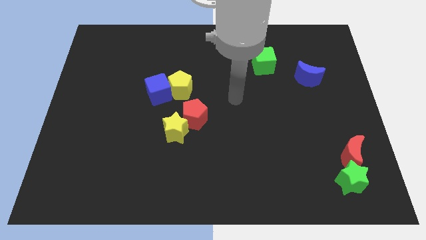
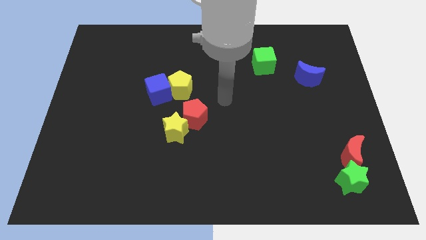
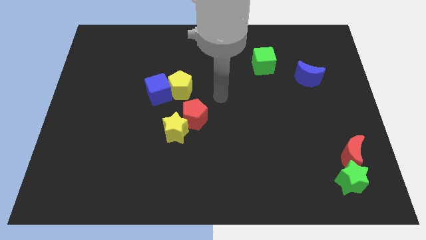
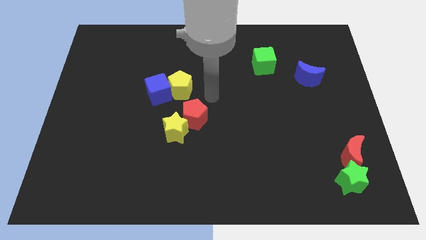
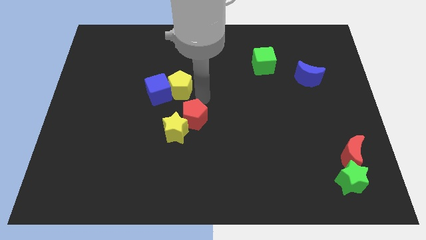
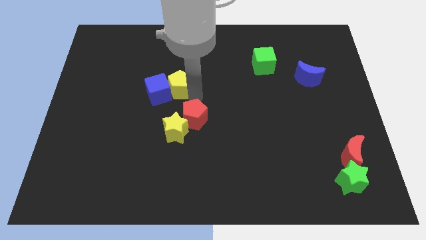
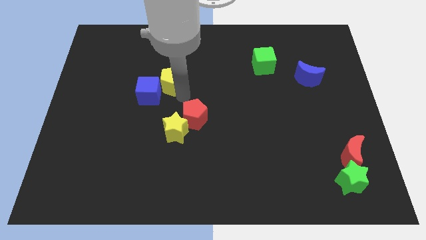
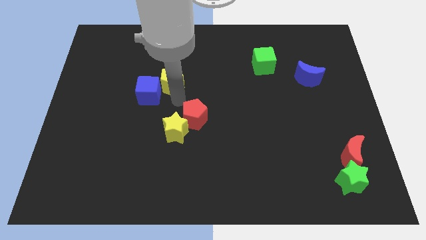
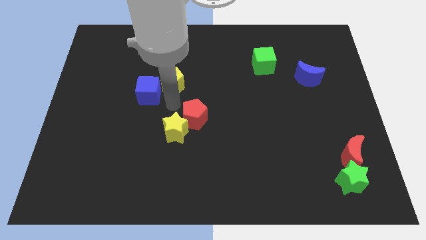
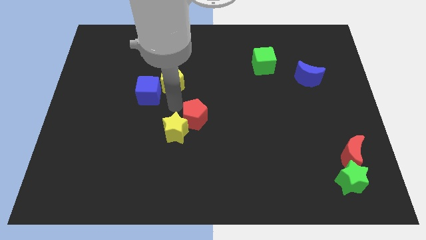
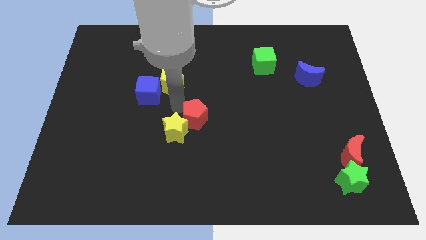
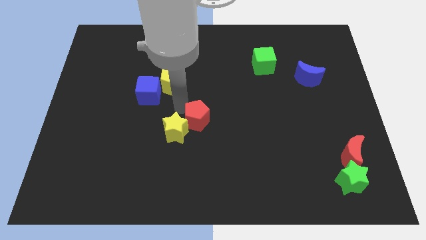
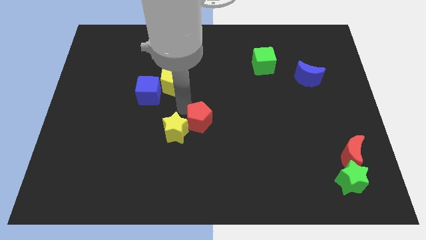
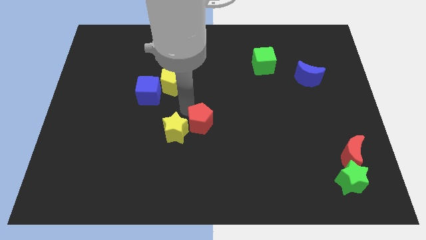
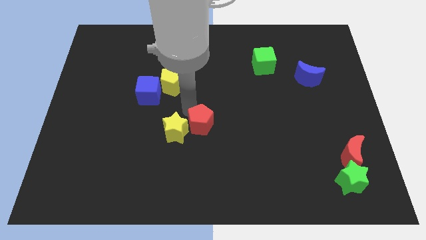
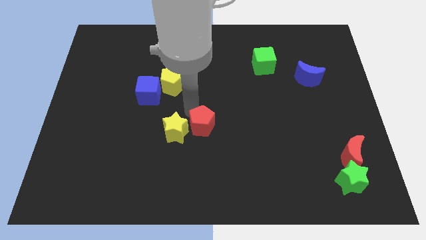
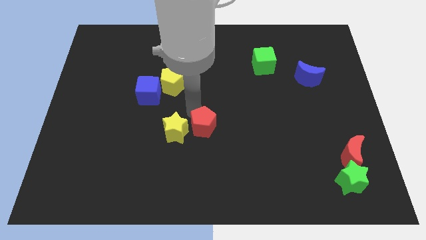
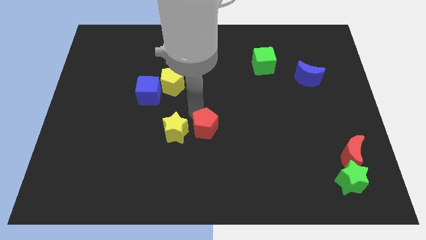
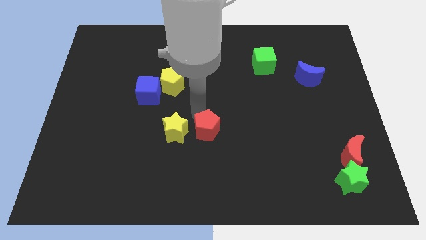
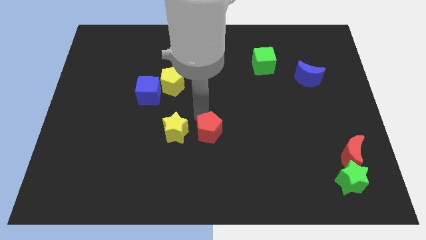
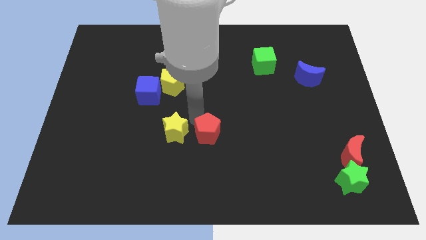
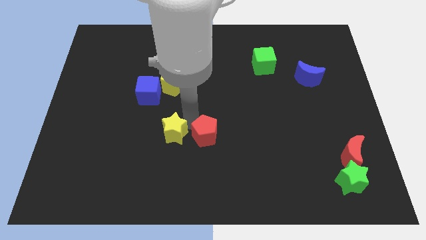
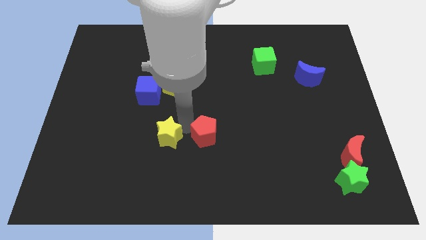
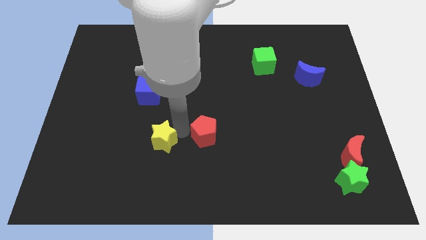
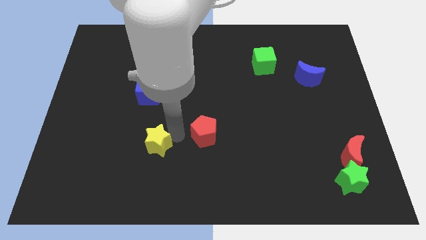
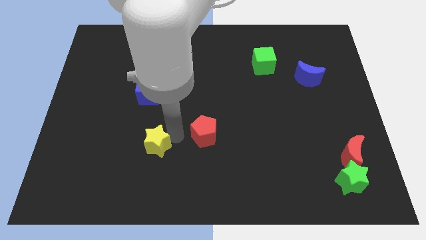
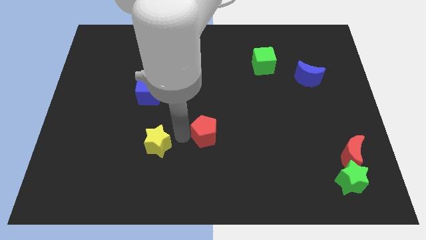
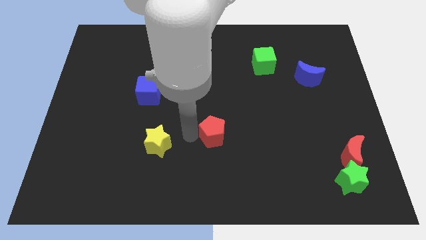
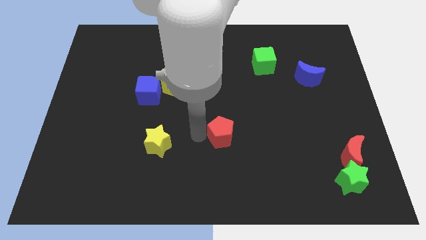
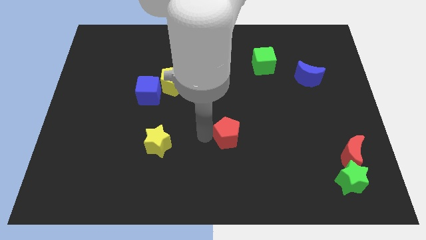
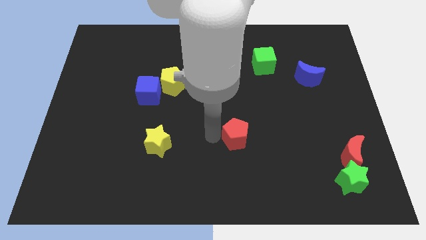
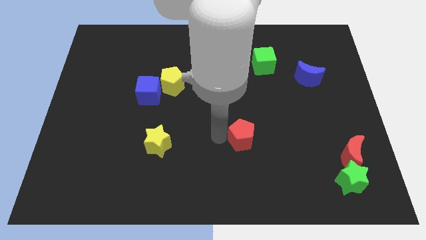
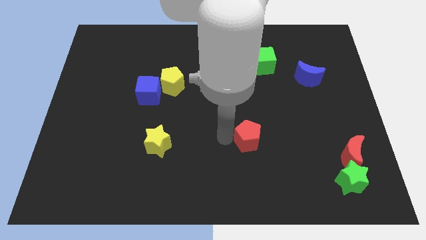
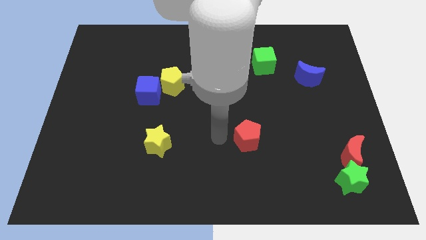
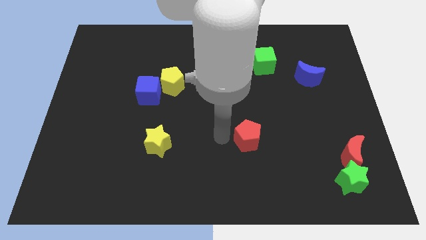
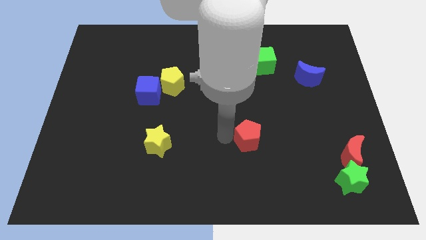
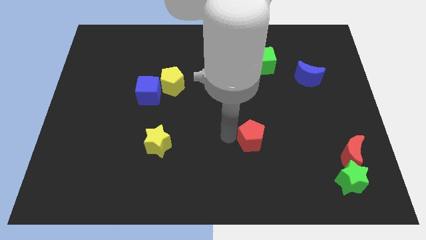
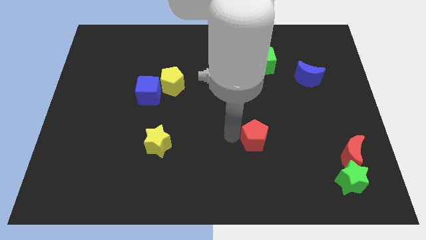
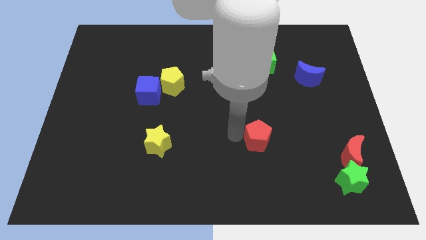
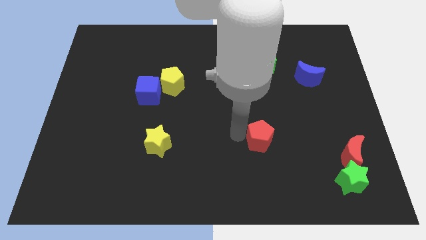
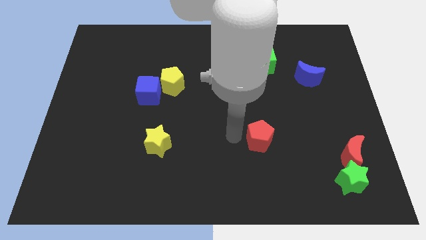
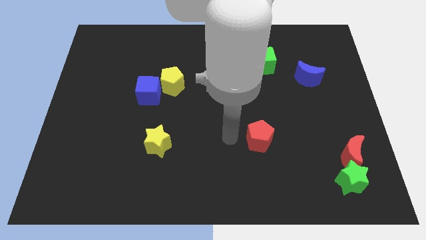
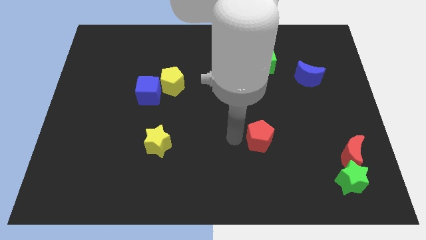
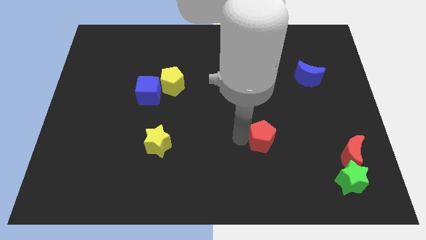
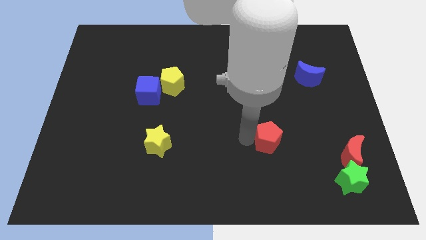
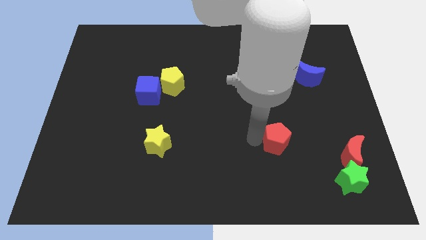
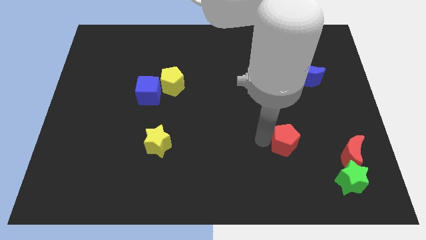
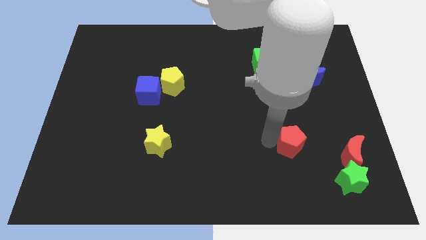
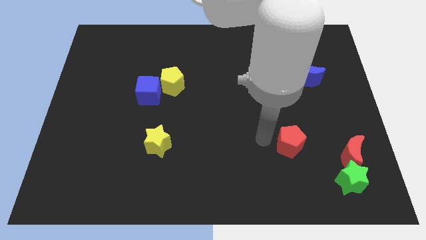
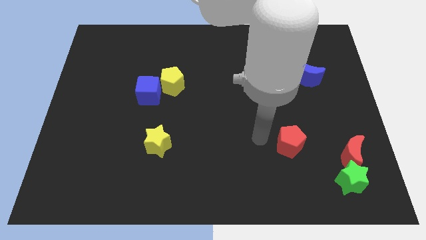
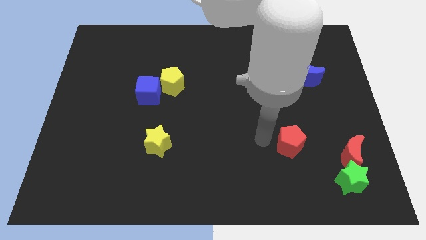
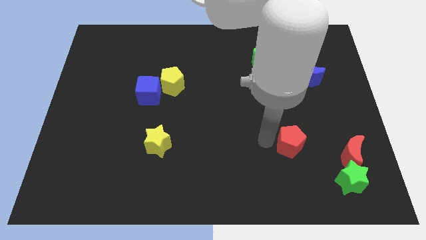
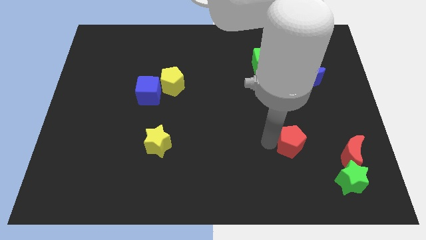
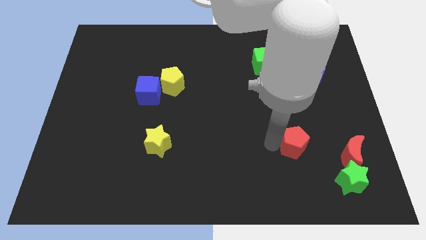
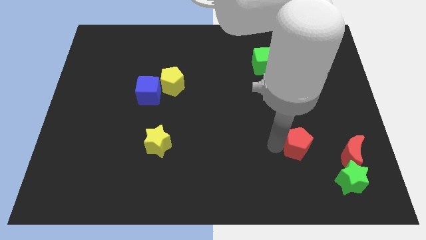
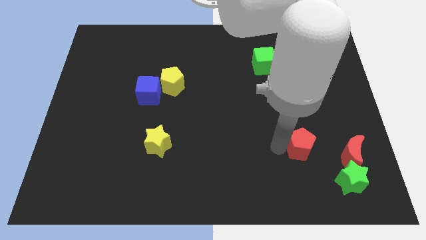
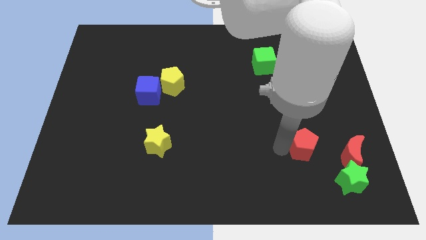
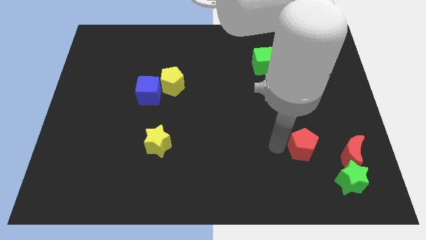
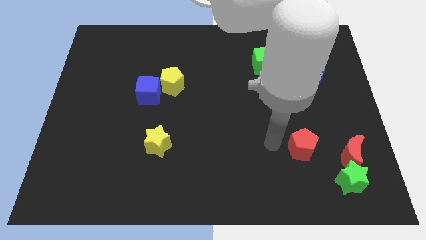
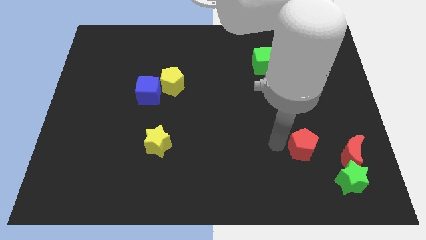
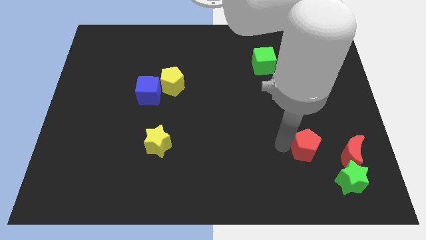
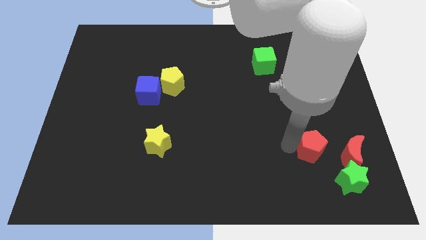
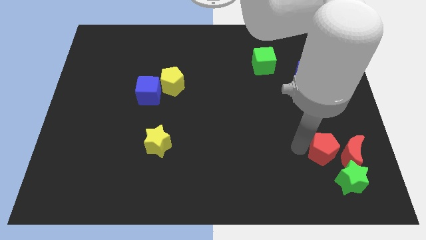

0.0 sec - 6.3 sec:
slide the red pentagon towards the red moon
